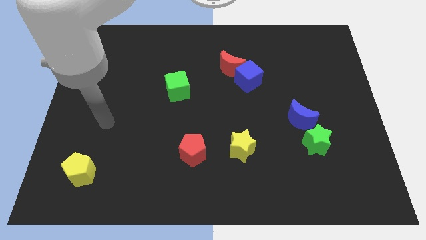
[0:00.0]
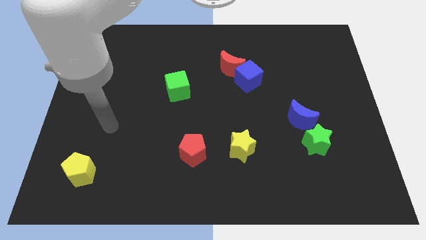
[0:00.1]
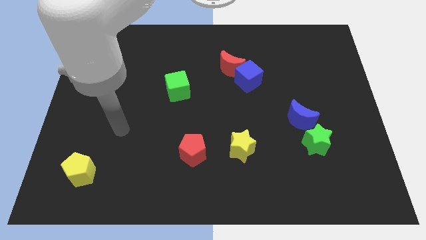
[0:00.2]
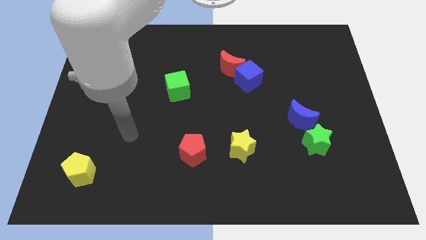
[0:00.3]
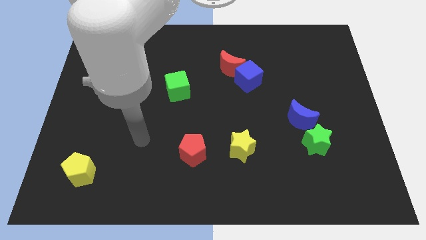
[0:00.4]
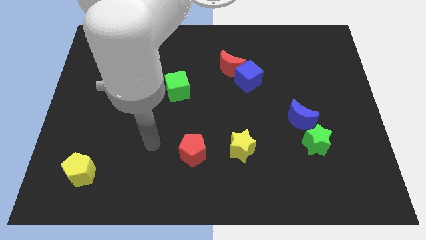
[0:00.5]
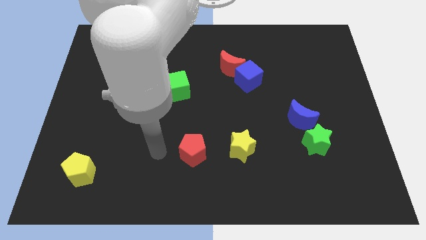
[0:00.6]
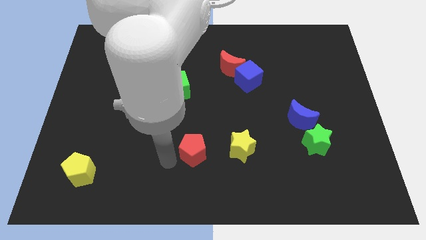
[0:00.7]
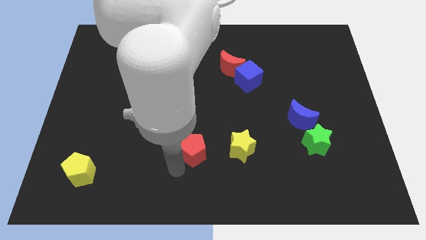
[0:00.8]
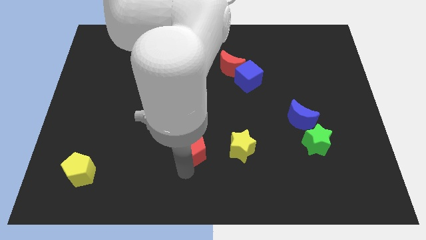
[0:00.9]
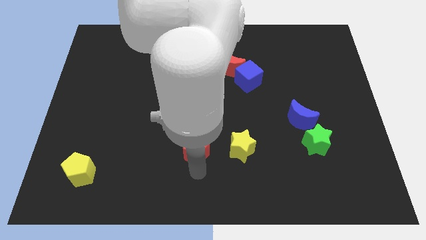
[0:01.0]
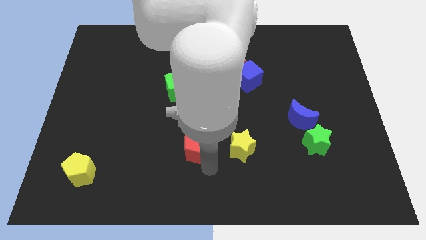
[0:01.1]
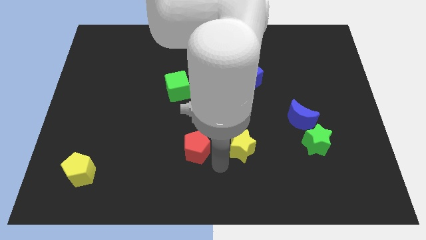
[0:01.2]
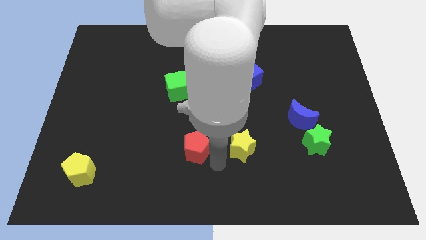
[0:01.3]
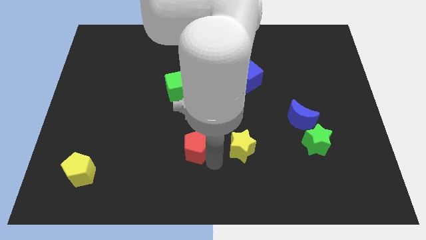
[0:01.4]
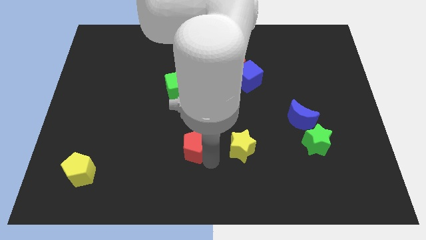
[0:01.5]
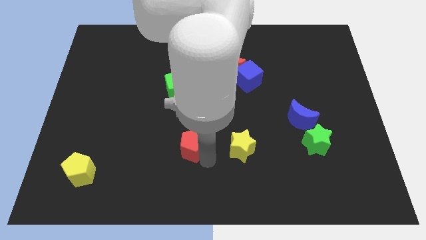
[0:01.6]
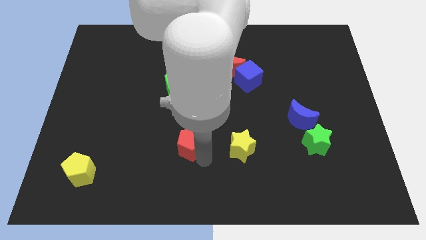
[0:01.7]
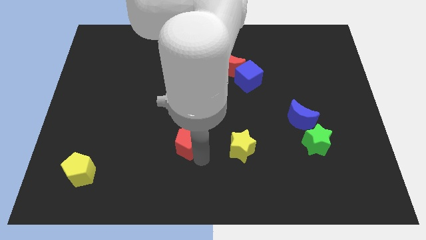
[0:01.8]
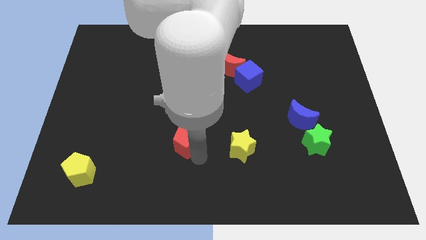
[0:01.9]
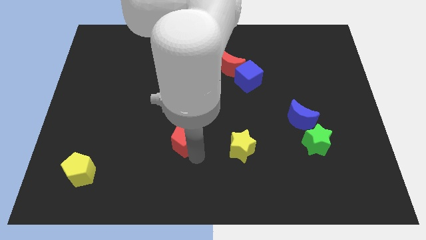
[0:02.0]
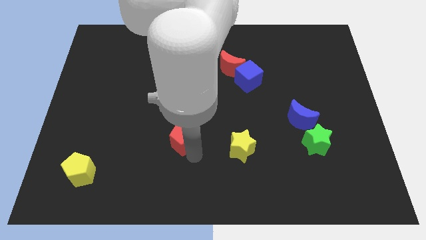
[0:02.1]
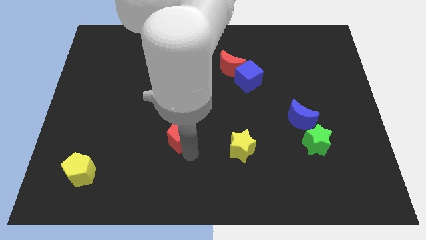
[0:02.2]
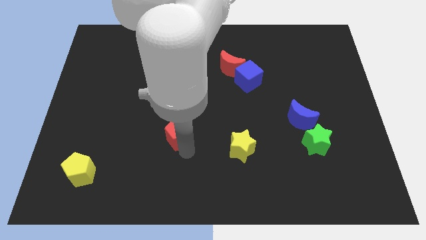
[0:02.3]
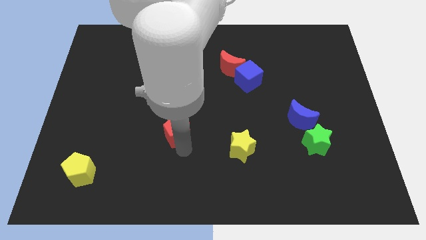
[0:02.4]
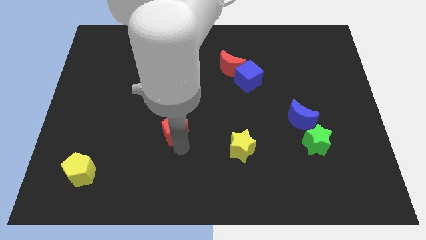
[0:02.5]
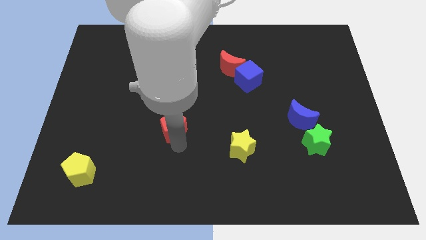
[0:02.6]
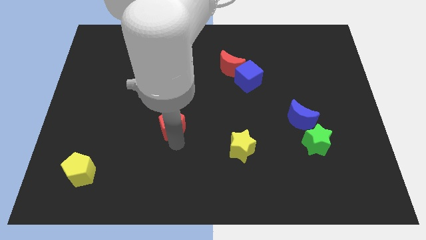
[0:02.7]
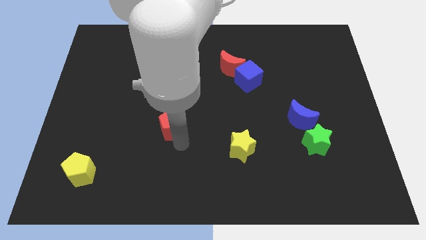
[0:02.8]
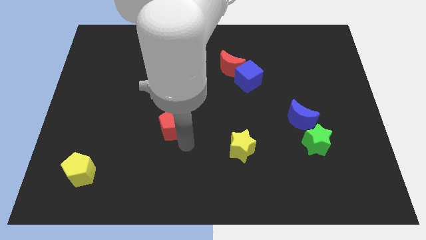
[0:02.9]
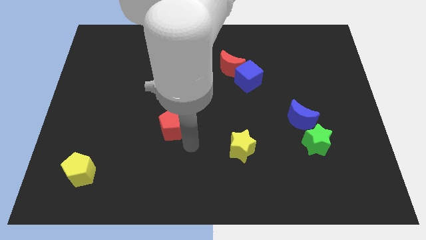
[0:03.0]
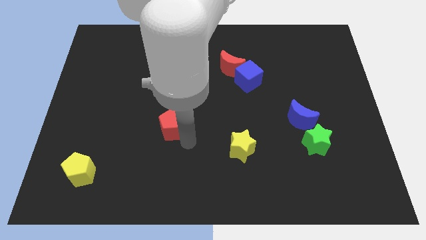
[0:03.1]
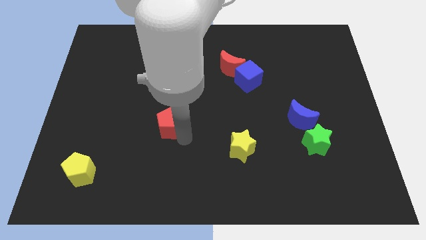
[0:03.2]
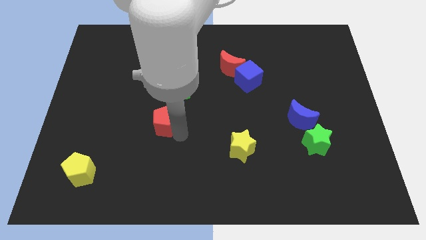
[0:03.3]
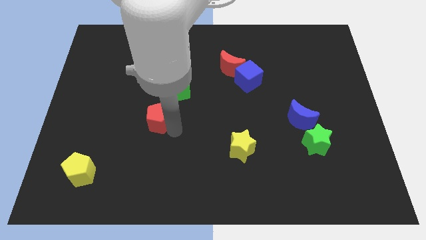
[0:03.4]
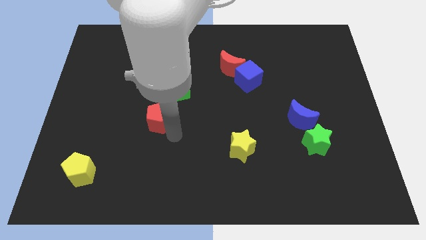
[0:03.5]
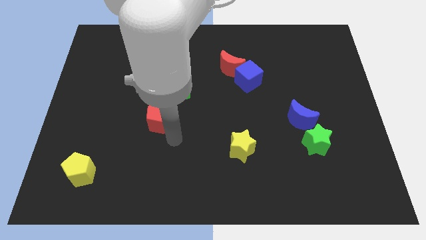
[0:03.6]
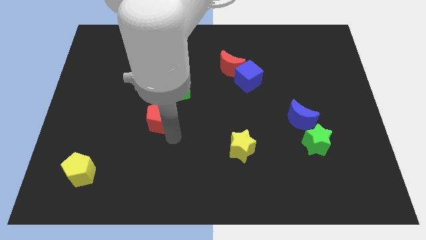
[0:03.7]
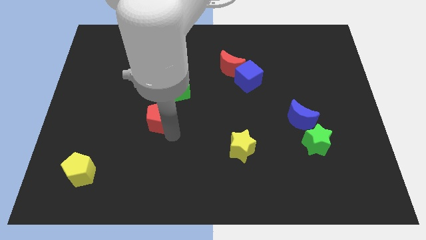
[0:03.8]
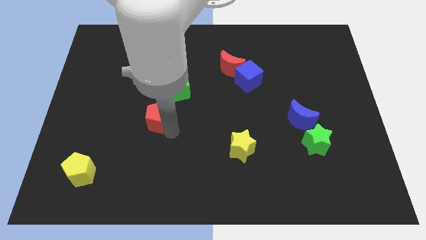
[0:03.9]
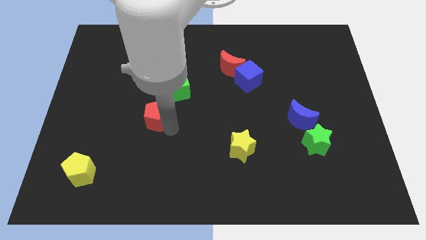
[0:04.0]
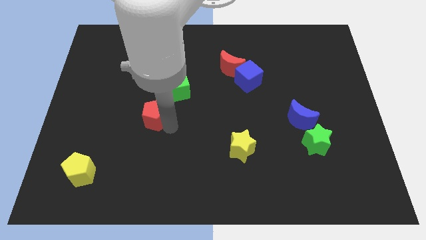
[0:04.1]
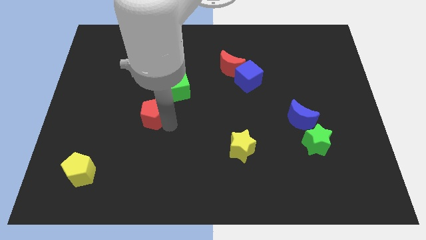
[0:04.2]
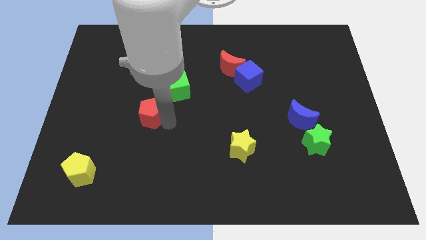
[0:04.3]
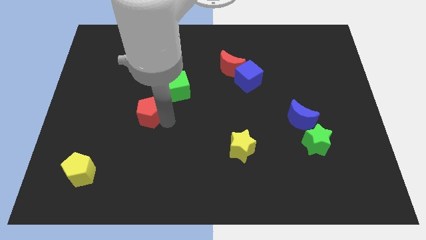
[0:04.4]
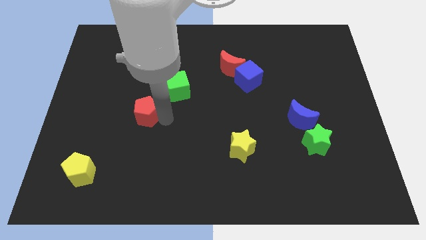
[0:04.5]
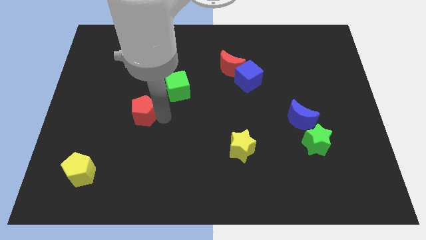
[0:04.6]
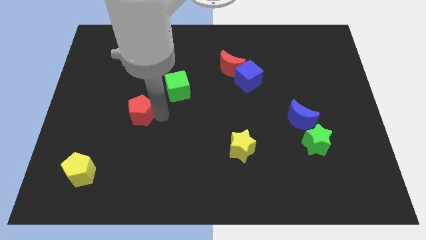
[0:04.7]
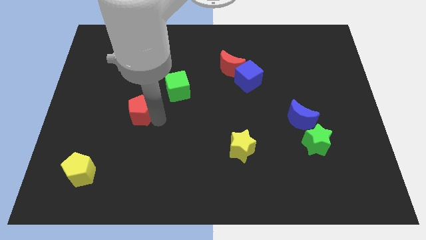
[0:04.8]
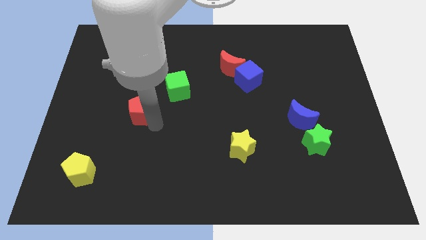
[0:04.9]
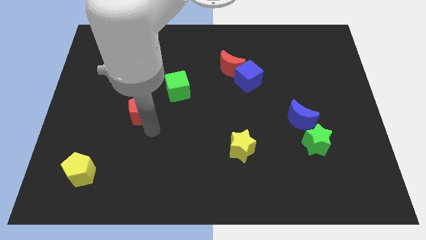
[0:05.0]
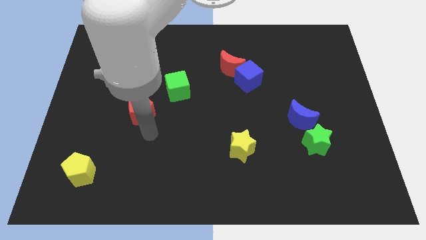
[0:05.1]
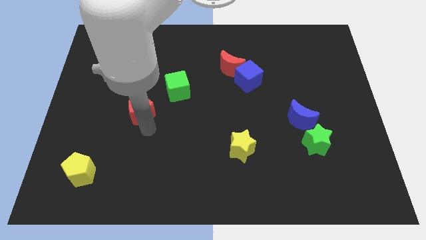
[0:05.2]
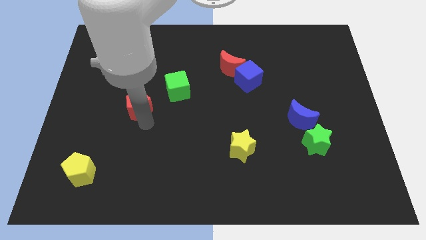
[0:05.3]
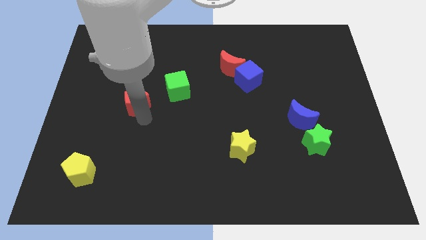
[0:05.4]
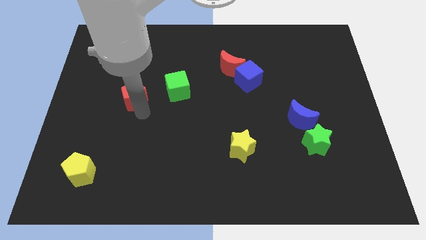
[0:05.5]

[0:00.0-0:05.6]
slide the red pentagon diagonally upwards and to the left

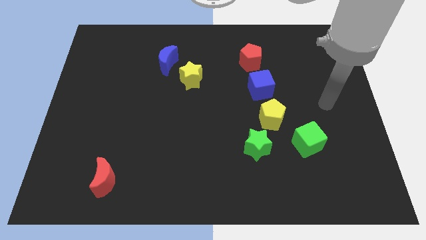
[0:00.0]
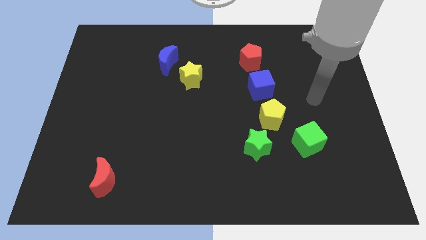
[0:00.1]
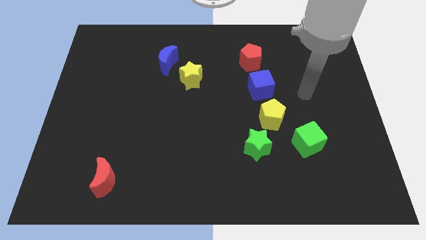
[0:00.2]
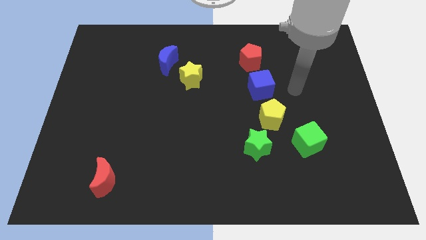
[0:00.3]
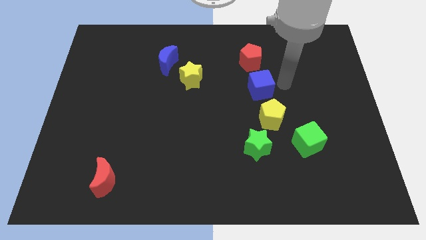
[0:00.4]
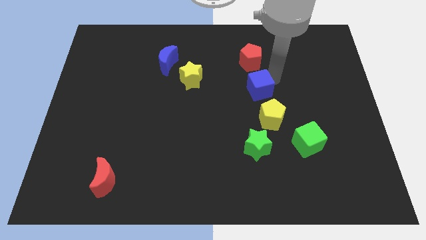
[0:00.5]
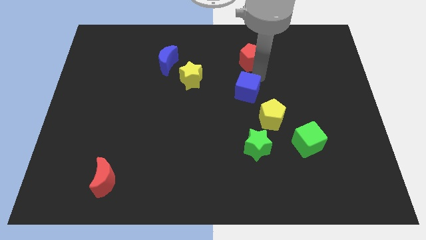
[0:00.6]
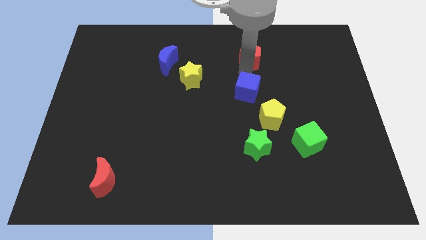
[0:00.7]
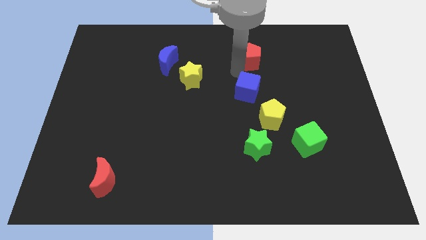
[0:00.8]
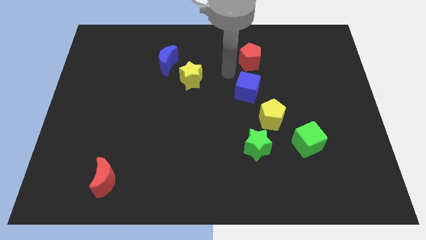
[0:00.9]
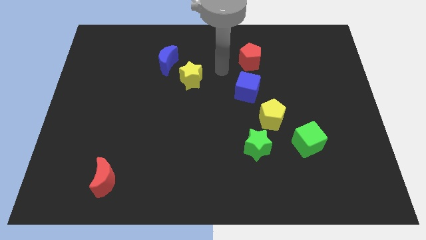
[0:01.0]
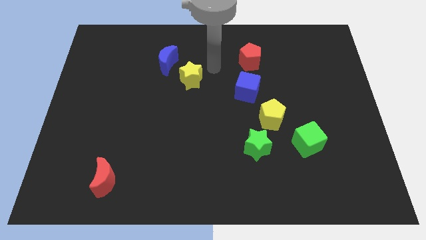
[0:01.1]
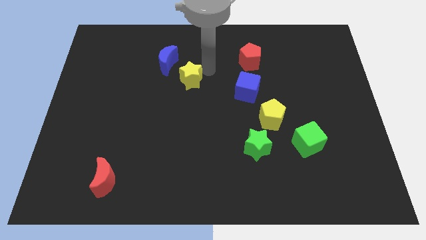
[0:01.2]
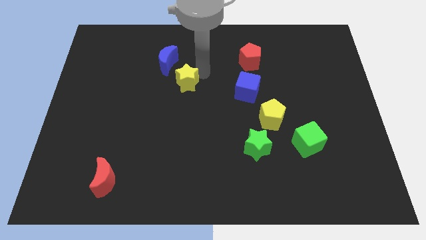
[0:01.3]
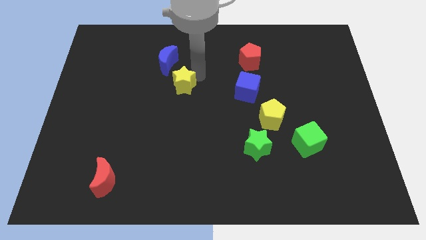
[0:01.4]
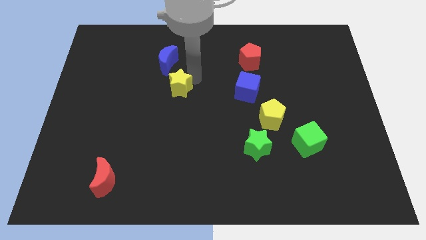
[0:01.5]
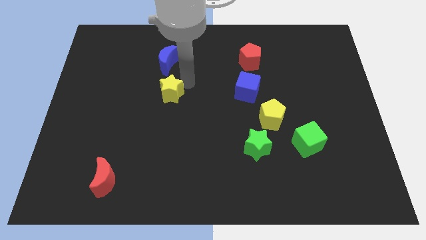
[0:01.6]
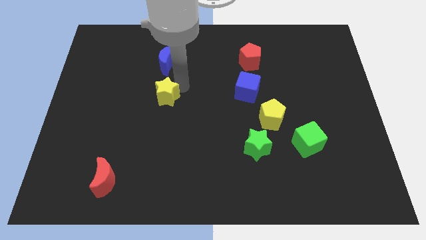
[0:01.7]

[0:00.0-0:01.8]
slide the yellow star downwards and left diagonally a little bit

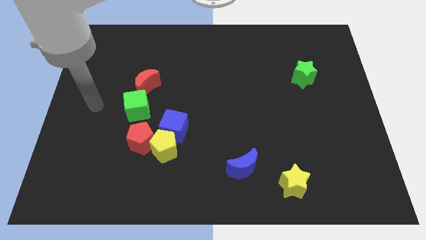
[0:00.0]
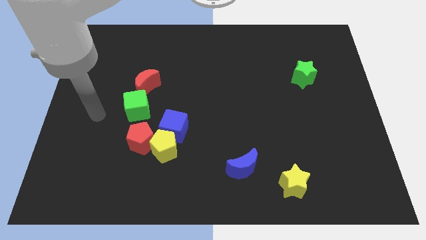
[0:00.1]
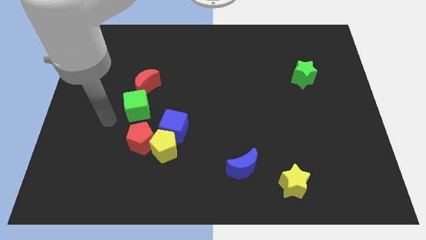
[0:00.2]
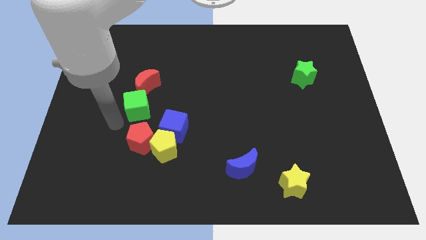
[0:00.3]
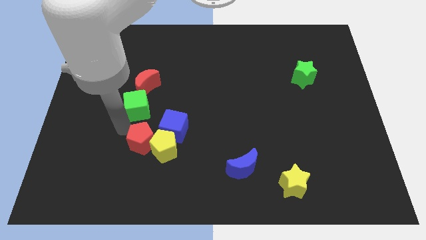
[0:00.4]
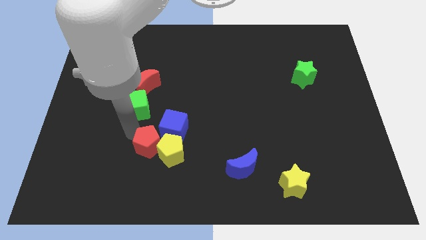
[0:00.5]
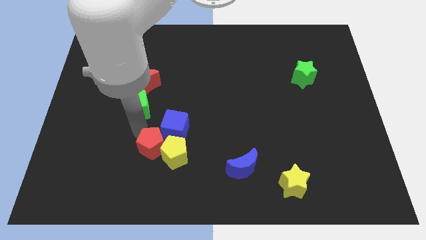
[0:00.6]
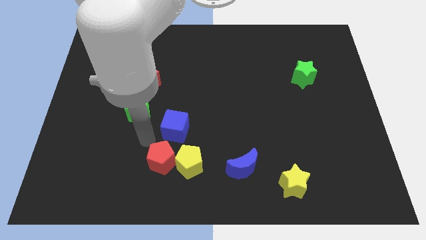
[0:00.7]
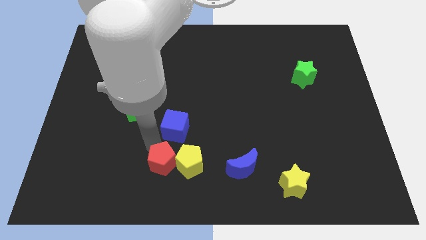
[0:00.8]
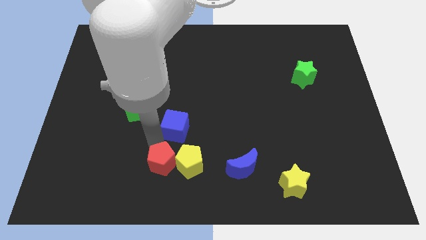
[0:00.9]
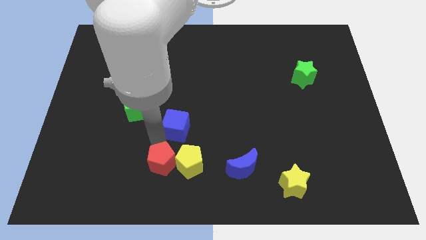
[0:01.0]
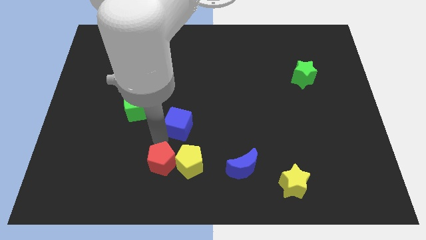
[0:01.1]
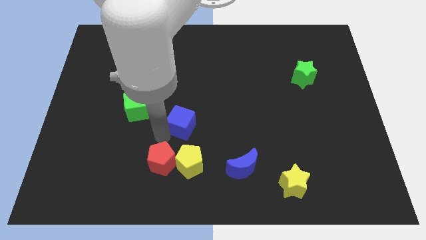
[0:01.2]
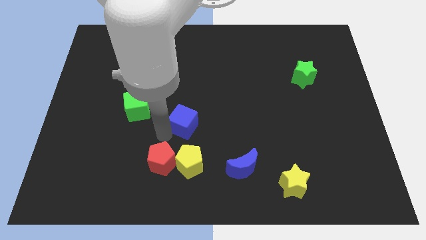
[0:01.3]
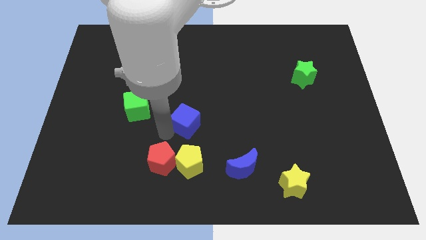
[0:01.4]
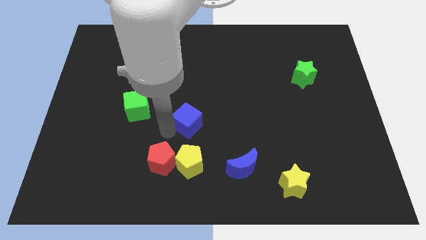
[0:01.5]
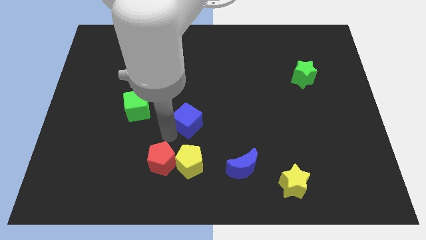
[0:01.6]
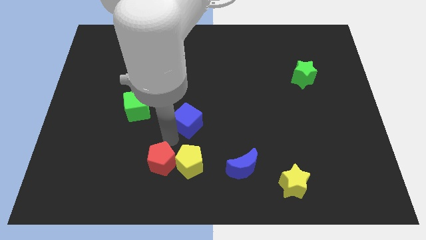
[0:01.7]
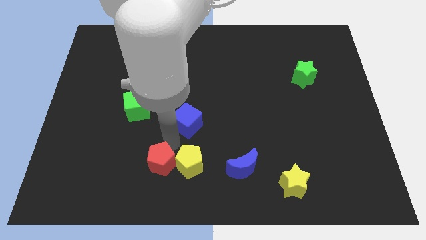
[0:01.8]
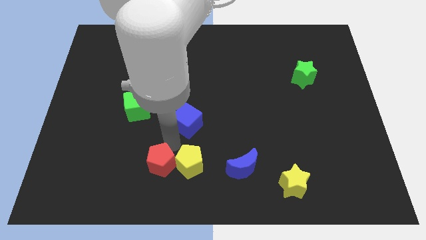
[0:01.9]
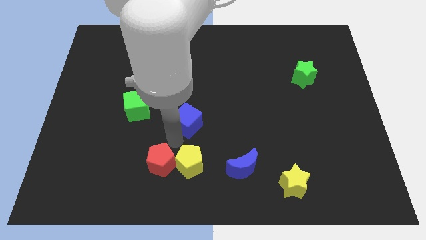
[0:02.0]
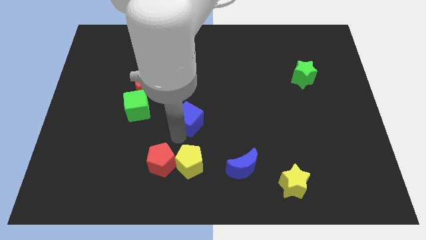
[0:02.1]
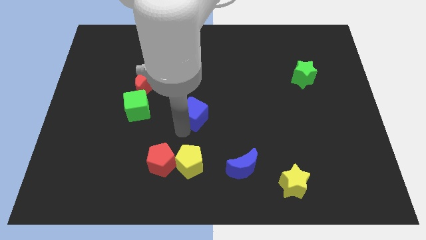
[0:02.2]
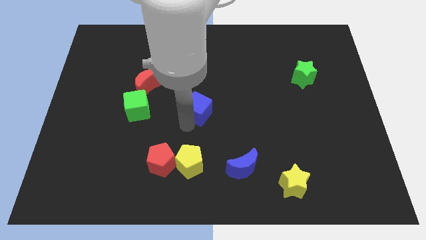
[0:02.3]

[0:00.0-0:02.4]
move the blue cube up and then to the right a little
